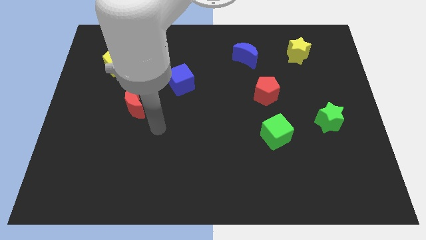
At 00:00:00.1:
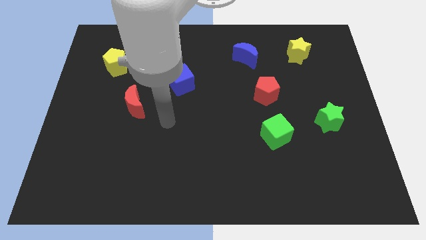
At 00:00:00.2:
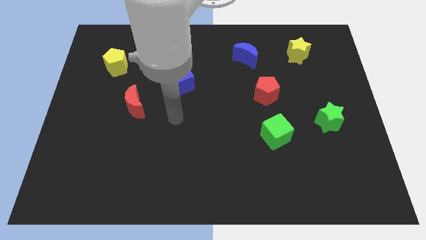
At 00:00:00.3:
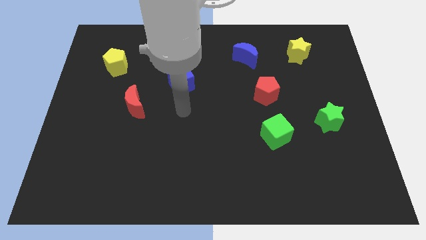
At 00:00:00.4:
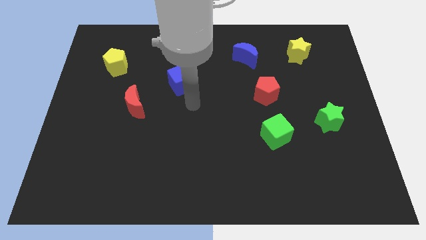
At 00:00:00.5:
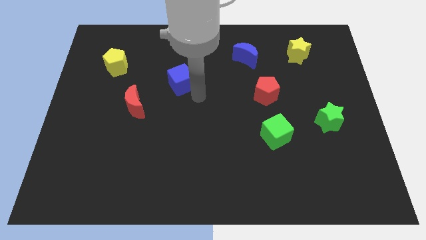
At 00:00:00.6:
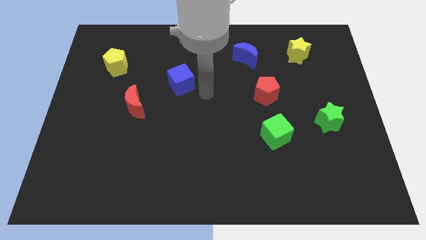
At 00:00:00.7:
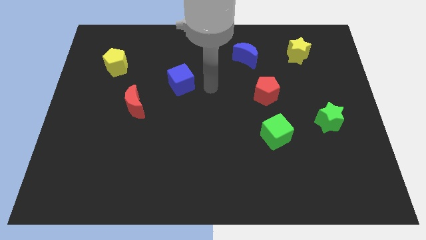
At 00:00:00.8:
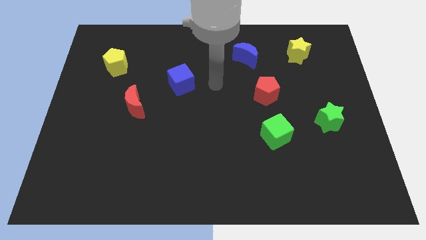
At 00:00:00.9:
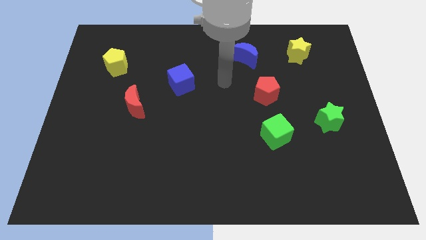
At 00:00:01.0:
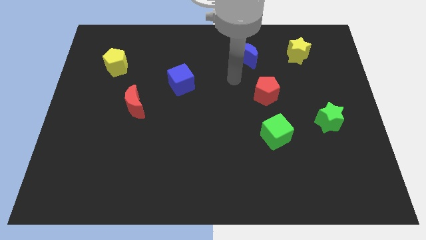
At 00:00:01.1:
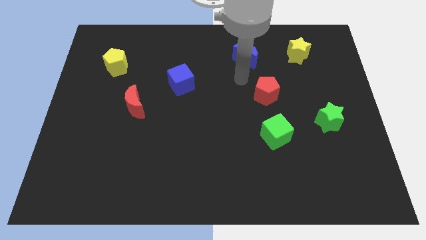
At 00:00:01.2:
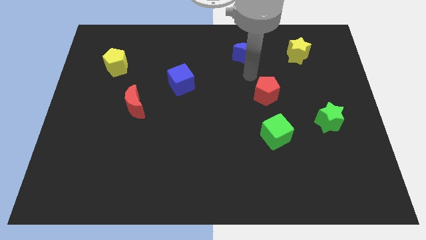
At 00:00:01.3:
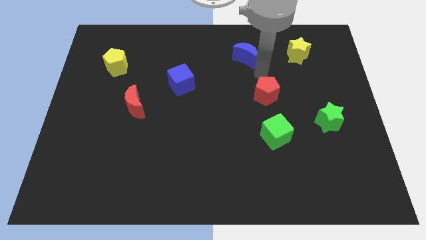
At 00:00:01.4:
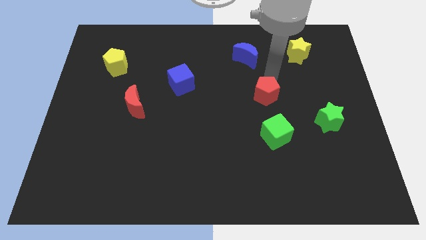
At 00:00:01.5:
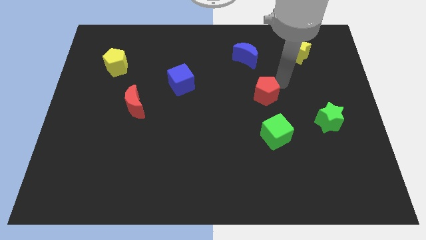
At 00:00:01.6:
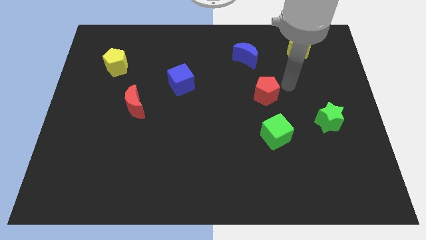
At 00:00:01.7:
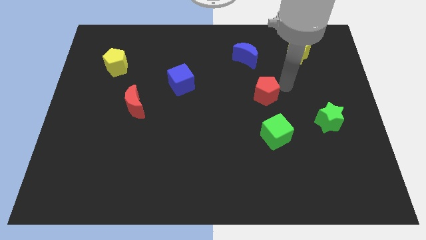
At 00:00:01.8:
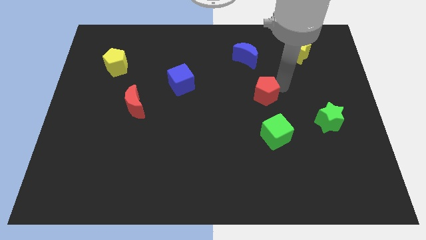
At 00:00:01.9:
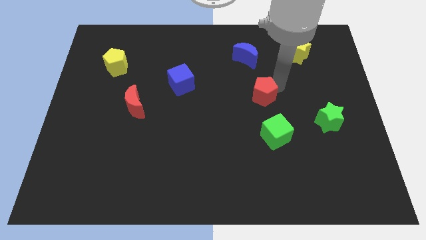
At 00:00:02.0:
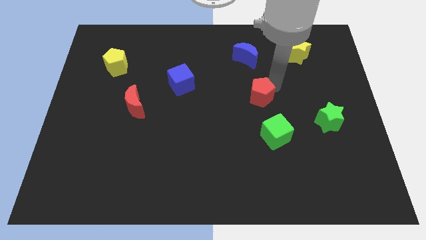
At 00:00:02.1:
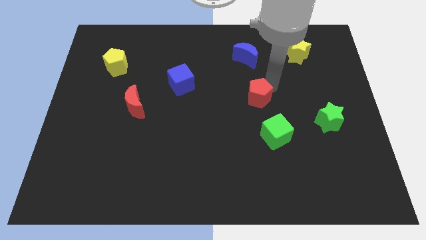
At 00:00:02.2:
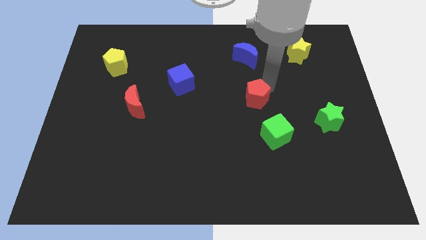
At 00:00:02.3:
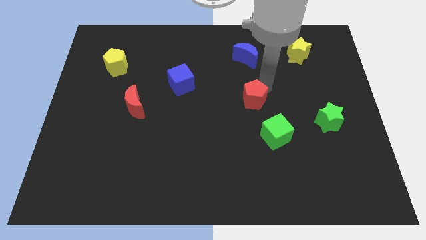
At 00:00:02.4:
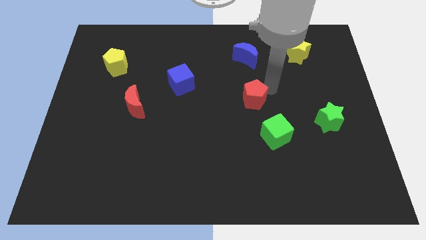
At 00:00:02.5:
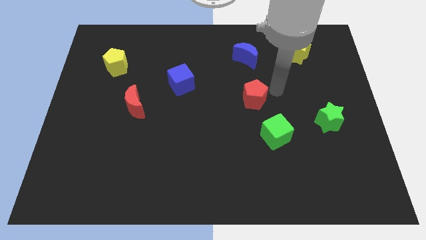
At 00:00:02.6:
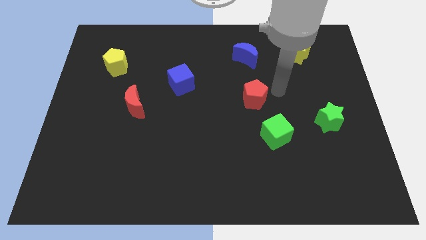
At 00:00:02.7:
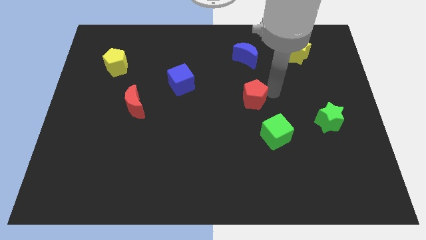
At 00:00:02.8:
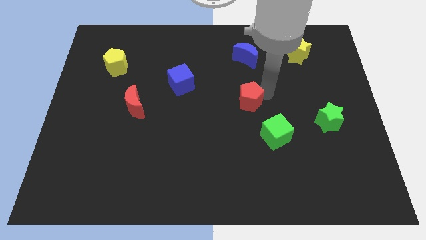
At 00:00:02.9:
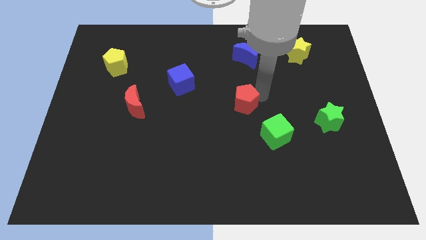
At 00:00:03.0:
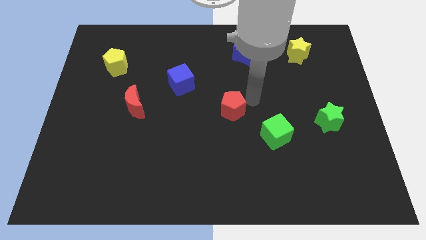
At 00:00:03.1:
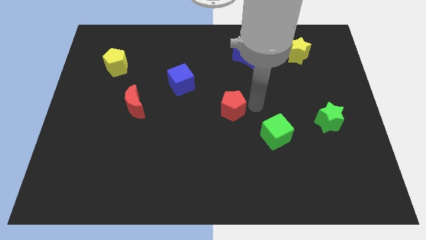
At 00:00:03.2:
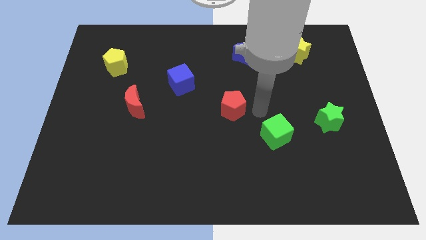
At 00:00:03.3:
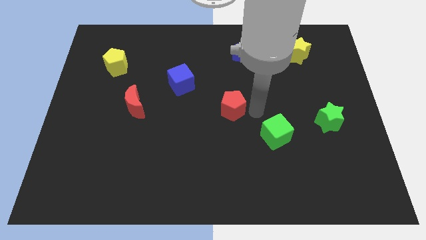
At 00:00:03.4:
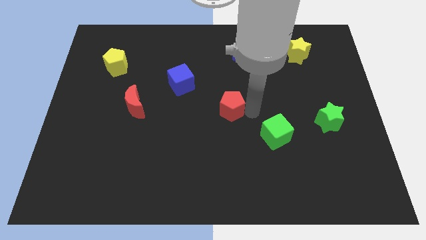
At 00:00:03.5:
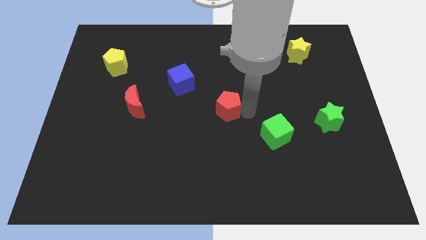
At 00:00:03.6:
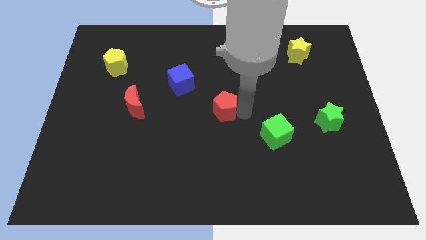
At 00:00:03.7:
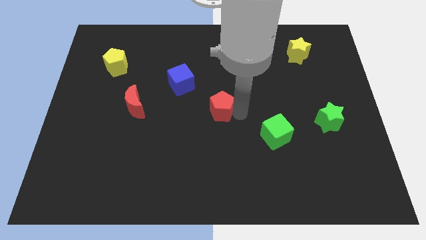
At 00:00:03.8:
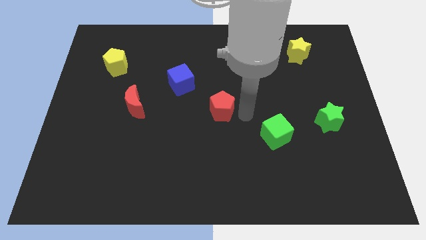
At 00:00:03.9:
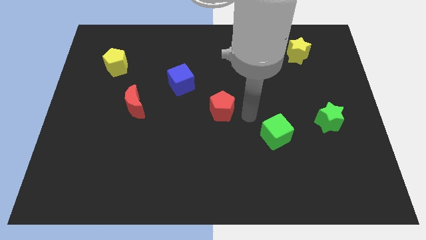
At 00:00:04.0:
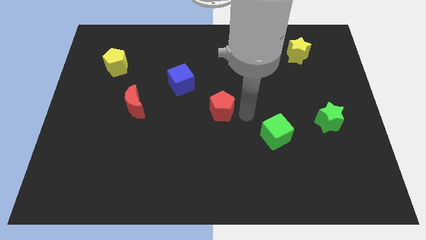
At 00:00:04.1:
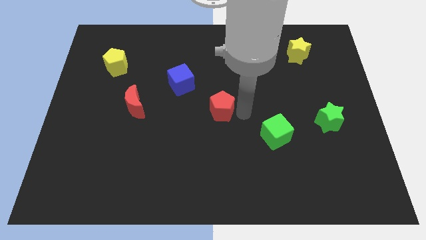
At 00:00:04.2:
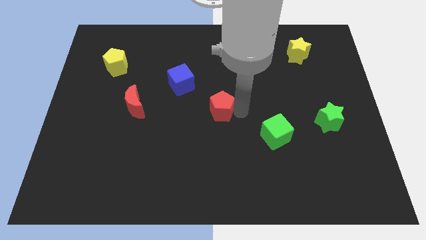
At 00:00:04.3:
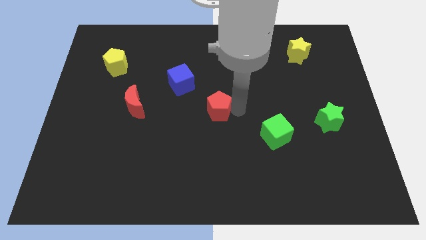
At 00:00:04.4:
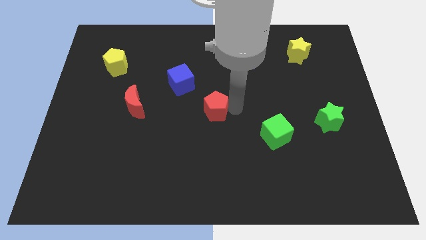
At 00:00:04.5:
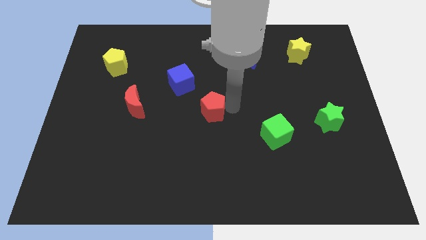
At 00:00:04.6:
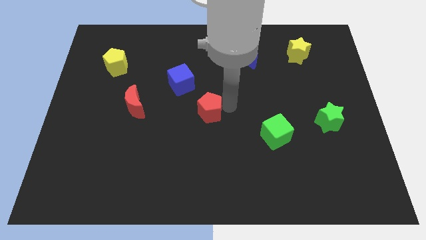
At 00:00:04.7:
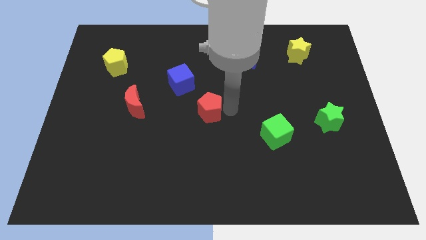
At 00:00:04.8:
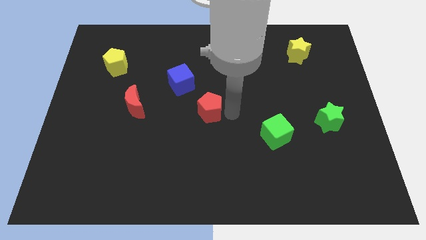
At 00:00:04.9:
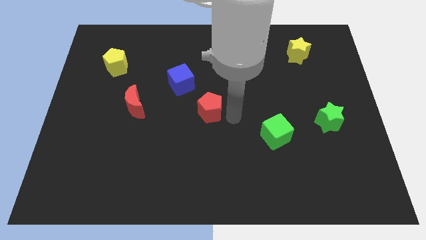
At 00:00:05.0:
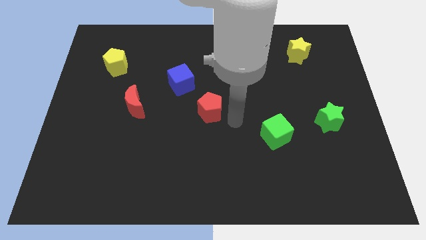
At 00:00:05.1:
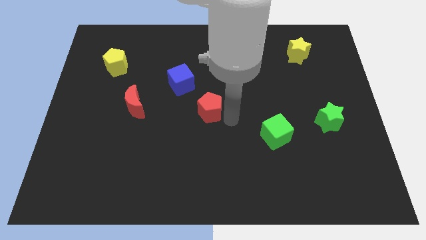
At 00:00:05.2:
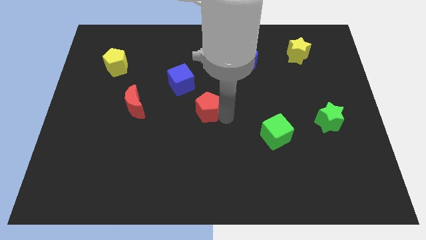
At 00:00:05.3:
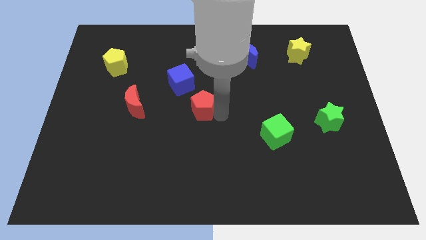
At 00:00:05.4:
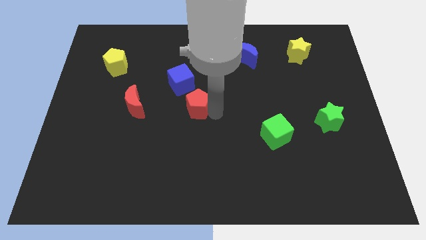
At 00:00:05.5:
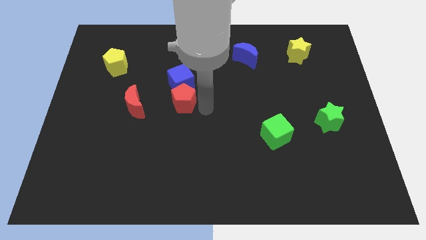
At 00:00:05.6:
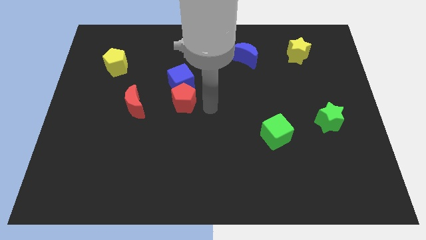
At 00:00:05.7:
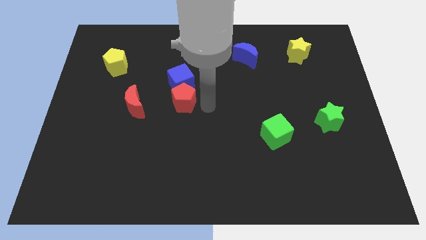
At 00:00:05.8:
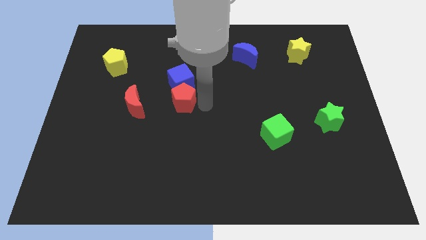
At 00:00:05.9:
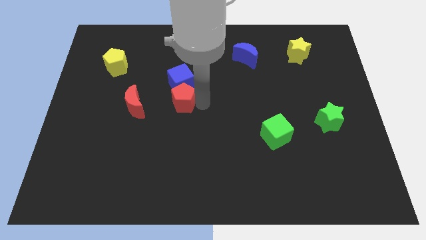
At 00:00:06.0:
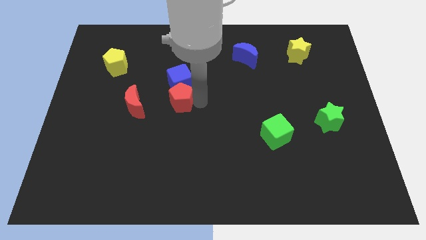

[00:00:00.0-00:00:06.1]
move the red pentagon left

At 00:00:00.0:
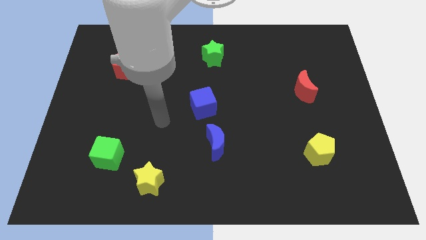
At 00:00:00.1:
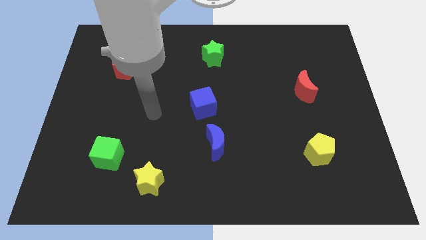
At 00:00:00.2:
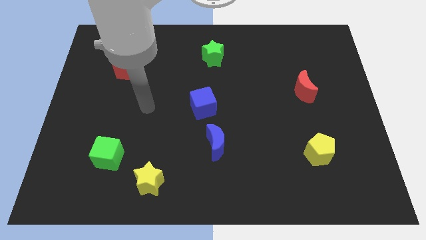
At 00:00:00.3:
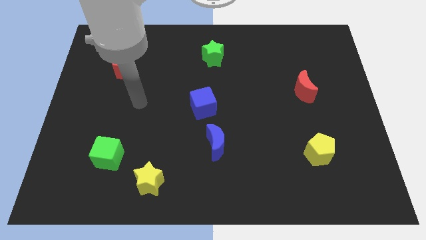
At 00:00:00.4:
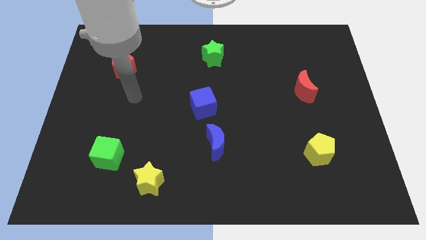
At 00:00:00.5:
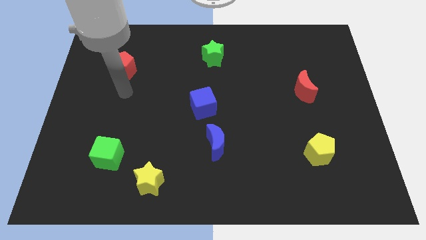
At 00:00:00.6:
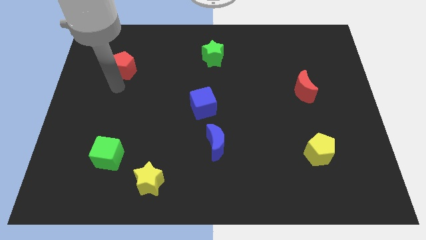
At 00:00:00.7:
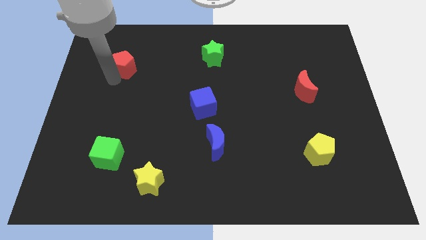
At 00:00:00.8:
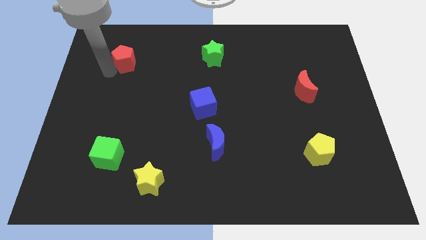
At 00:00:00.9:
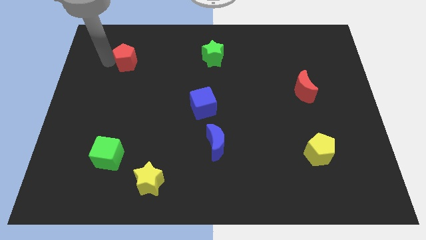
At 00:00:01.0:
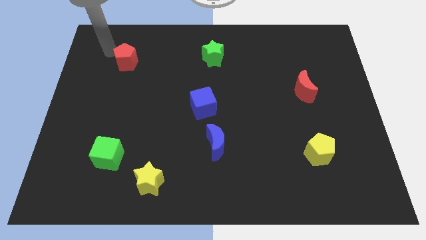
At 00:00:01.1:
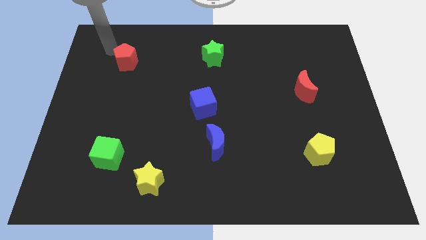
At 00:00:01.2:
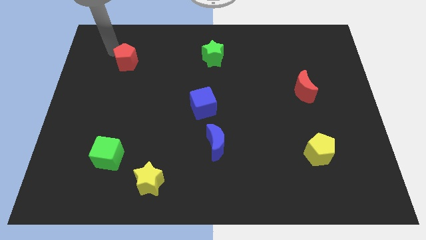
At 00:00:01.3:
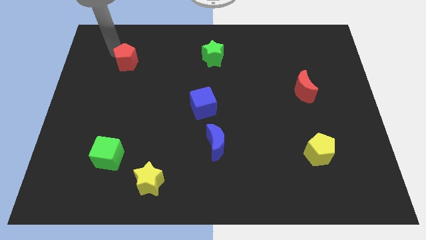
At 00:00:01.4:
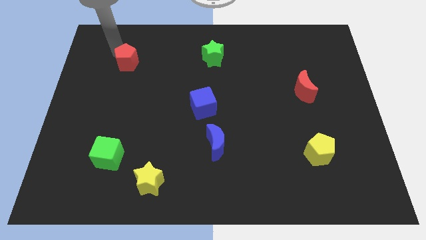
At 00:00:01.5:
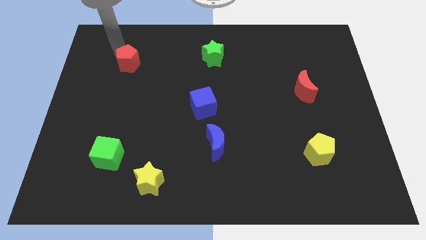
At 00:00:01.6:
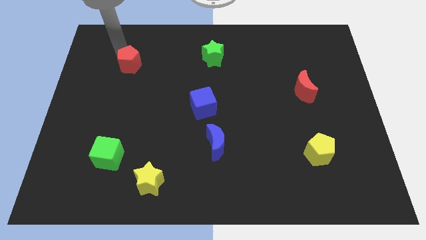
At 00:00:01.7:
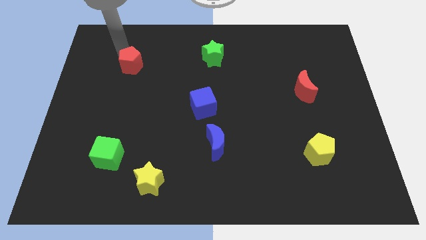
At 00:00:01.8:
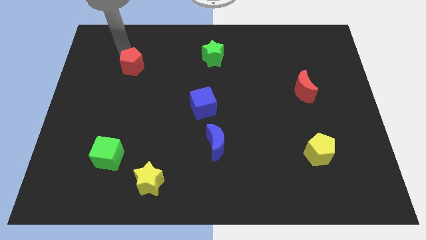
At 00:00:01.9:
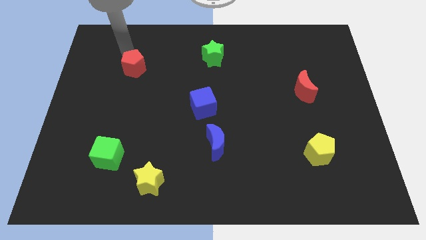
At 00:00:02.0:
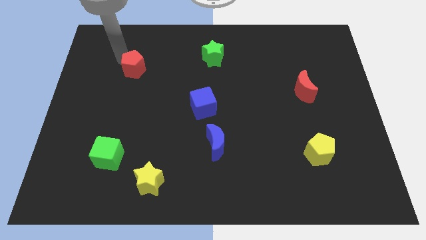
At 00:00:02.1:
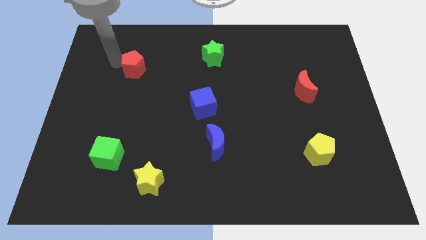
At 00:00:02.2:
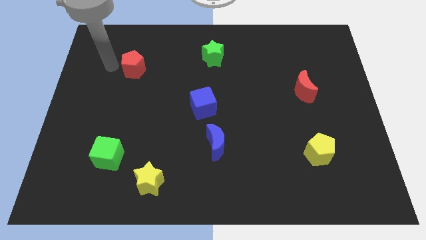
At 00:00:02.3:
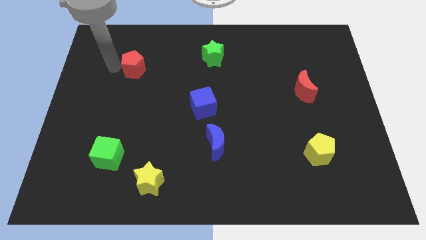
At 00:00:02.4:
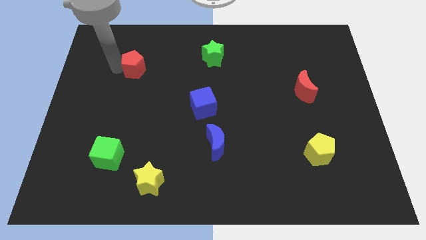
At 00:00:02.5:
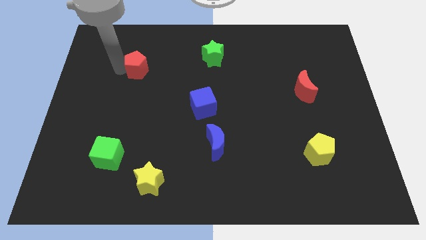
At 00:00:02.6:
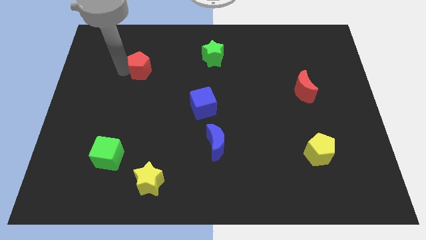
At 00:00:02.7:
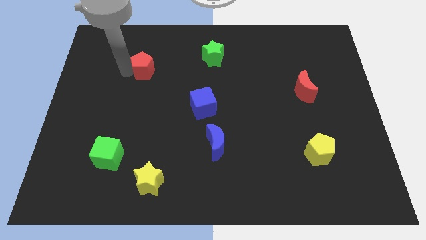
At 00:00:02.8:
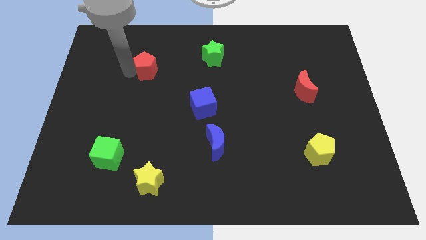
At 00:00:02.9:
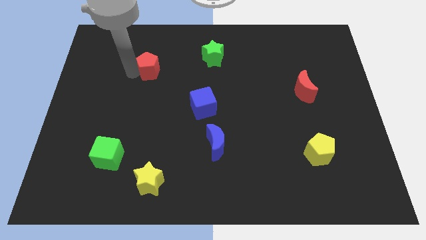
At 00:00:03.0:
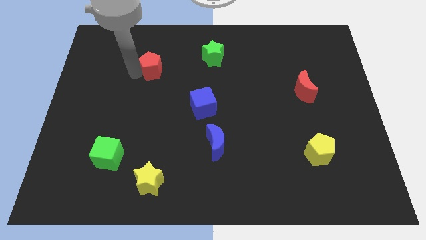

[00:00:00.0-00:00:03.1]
move the red pentagon a little bit to the right
